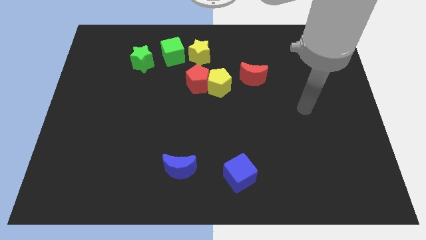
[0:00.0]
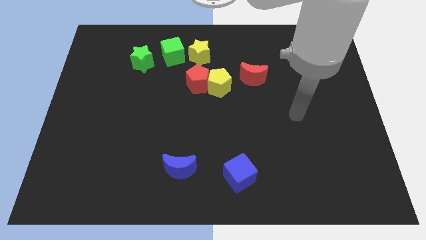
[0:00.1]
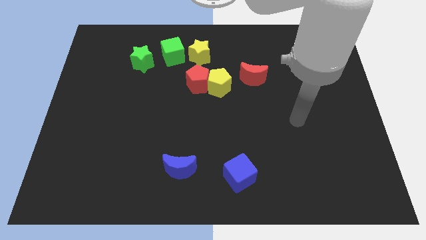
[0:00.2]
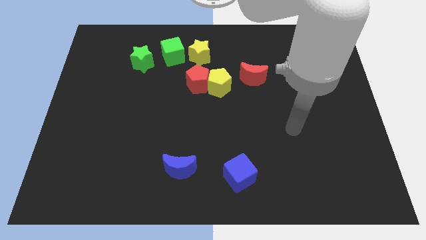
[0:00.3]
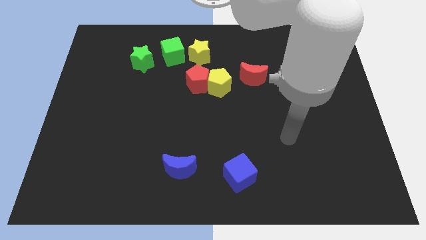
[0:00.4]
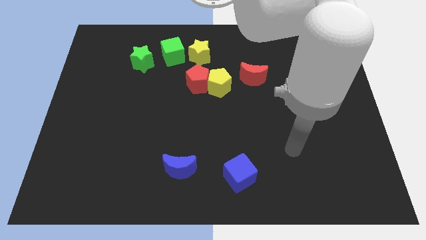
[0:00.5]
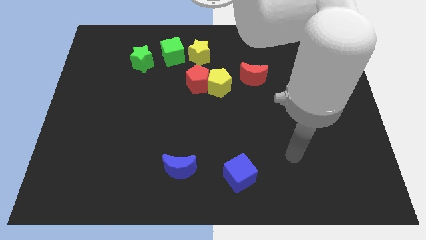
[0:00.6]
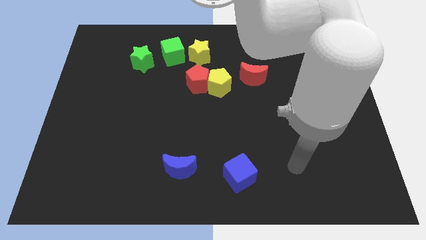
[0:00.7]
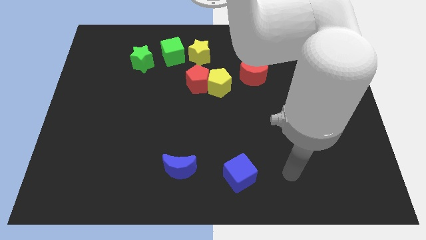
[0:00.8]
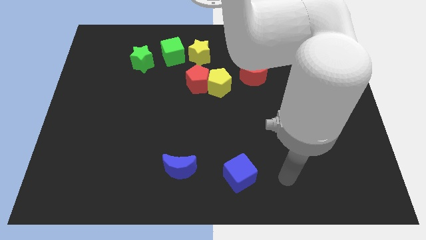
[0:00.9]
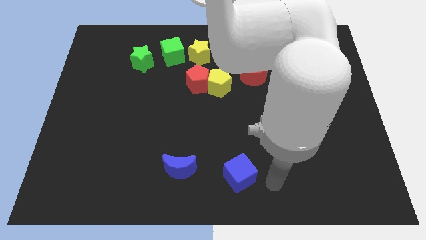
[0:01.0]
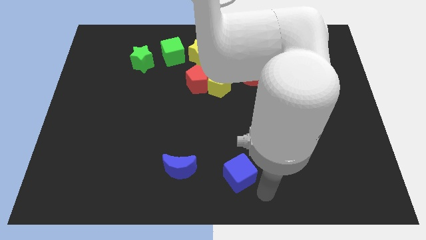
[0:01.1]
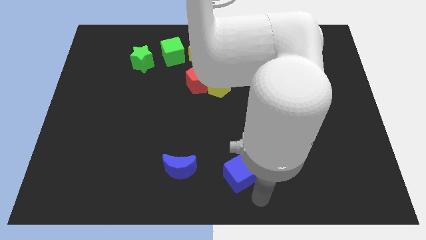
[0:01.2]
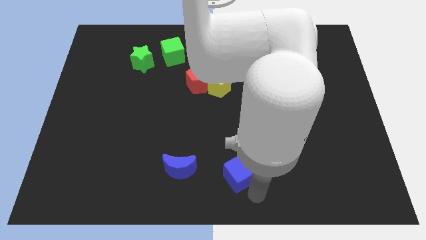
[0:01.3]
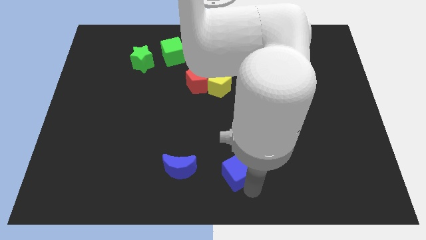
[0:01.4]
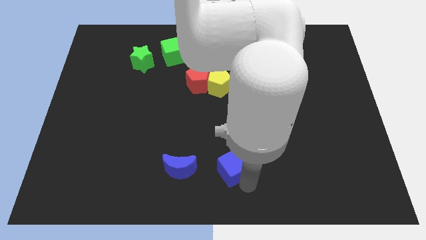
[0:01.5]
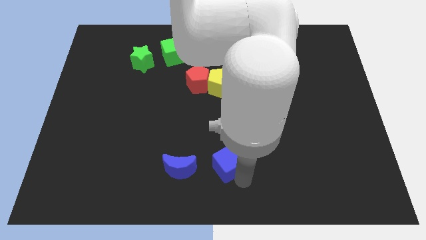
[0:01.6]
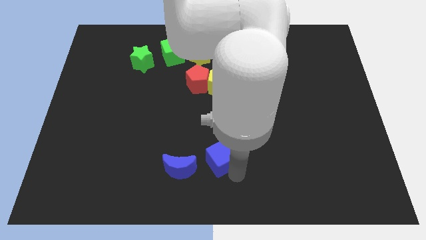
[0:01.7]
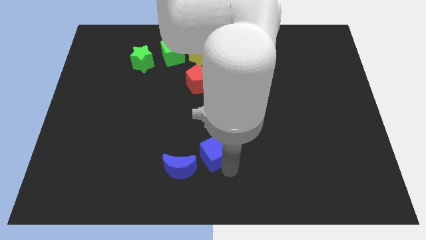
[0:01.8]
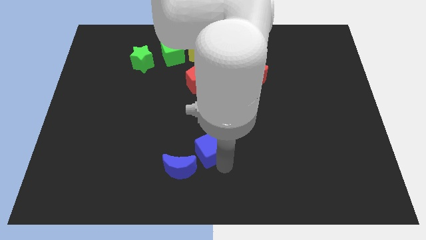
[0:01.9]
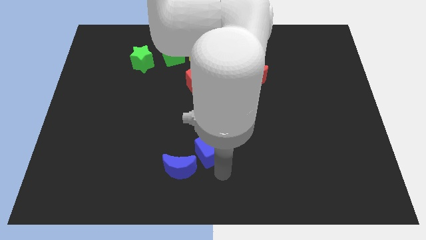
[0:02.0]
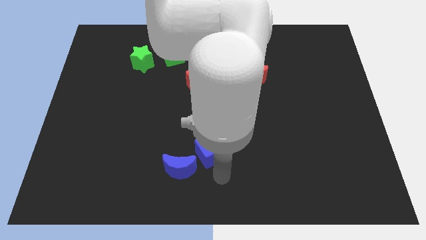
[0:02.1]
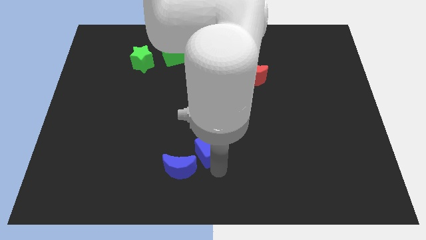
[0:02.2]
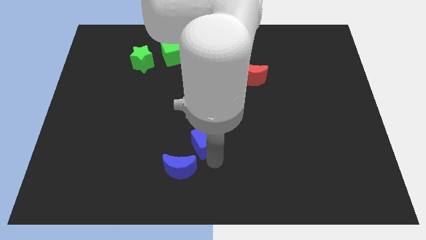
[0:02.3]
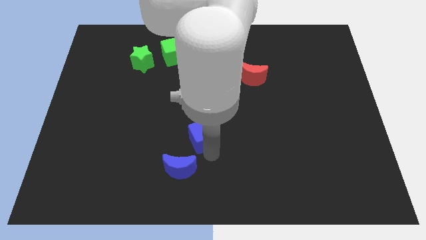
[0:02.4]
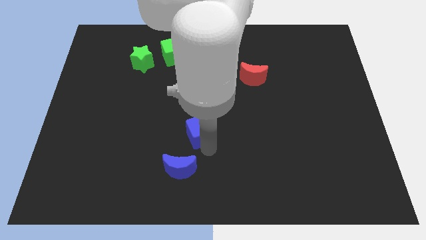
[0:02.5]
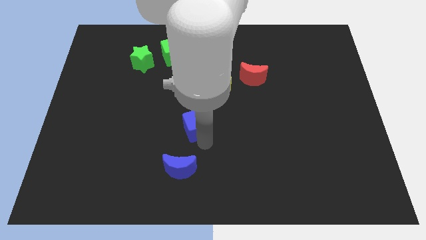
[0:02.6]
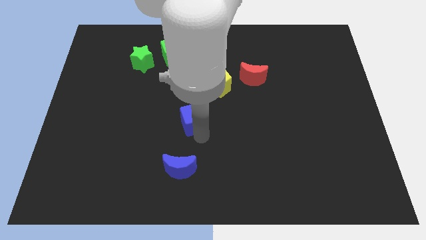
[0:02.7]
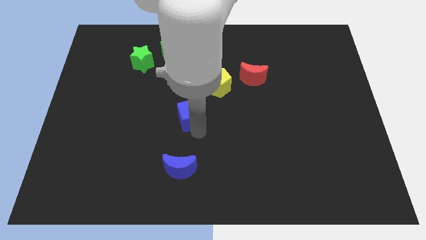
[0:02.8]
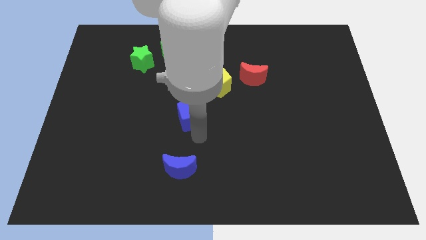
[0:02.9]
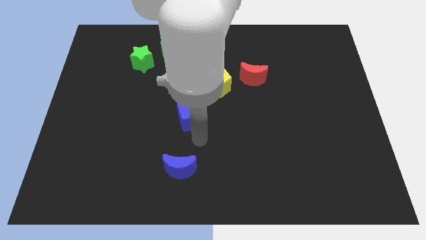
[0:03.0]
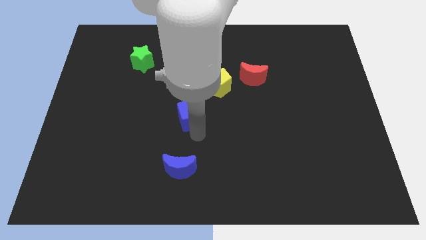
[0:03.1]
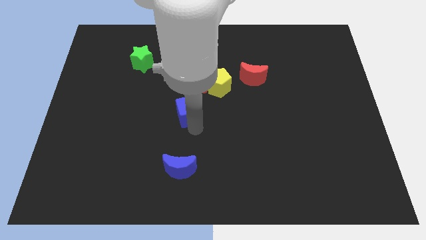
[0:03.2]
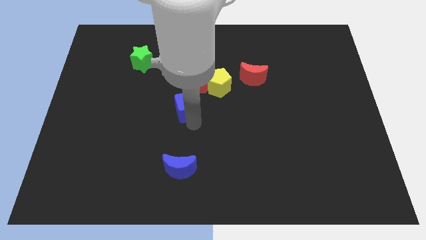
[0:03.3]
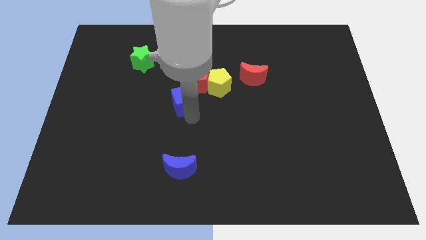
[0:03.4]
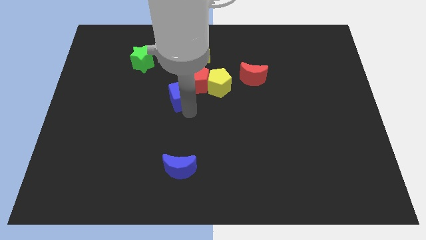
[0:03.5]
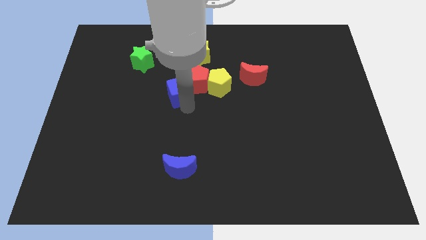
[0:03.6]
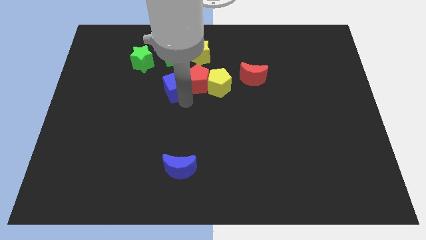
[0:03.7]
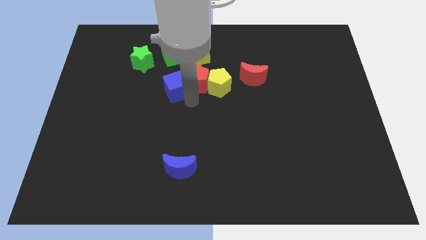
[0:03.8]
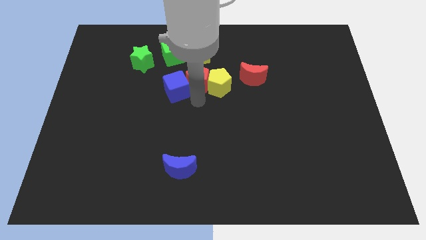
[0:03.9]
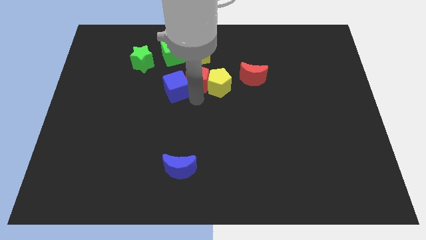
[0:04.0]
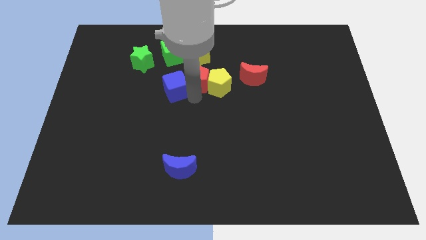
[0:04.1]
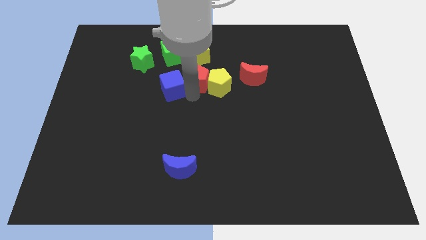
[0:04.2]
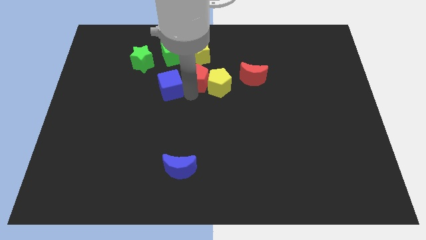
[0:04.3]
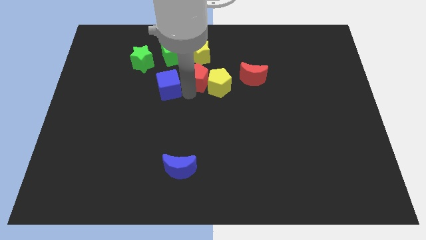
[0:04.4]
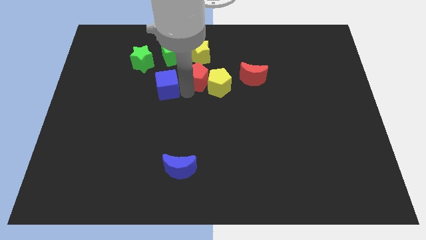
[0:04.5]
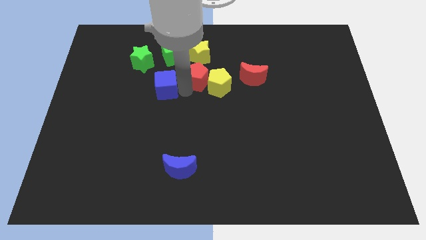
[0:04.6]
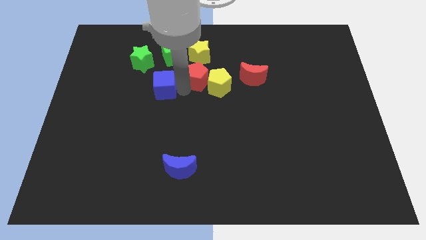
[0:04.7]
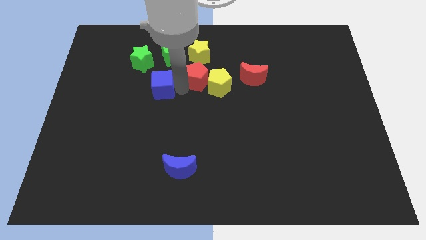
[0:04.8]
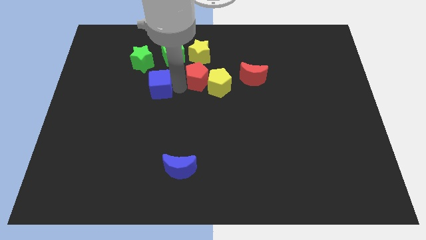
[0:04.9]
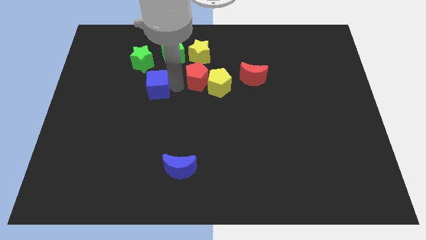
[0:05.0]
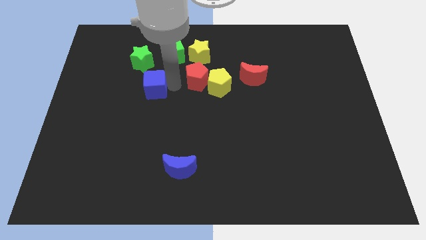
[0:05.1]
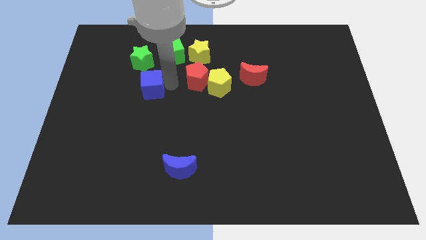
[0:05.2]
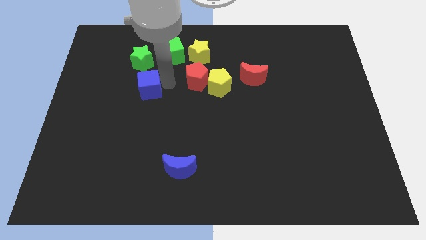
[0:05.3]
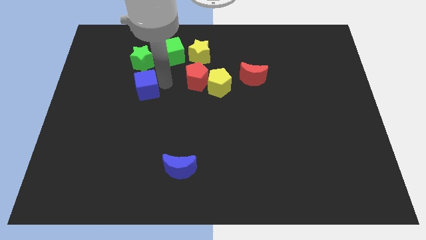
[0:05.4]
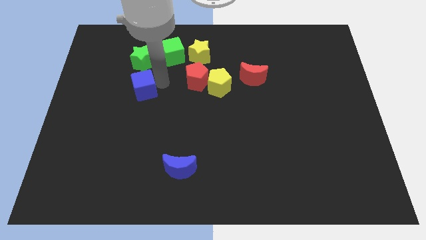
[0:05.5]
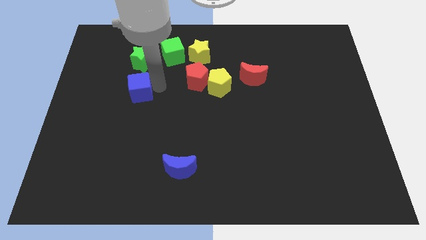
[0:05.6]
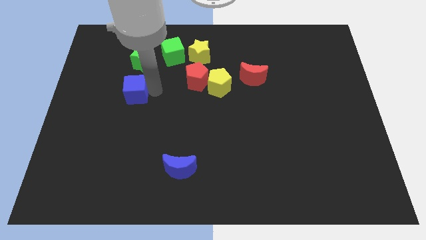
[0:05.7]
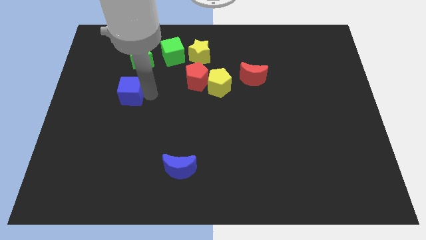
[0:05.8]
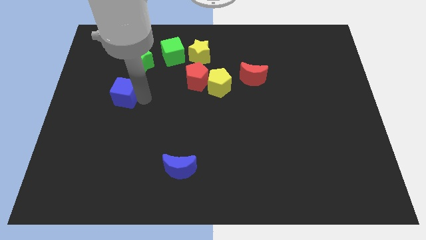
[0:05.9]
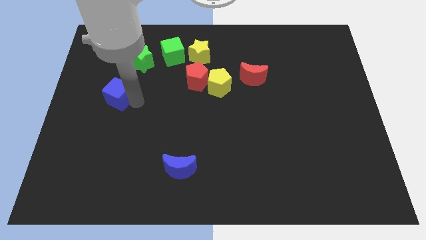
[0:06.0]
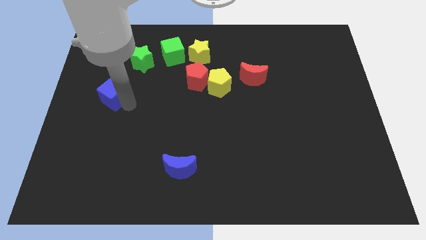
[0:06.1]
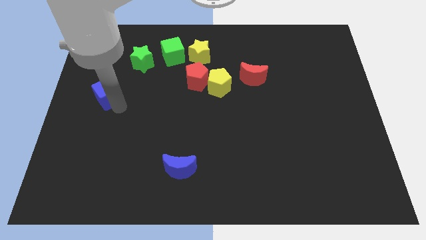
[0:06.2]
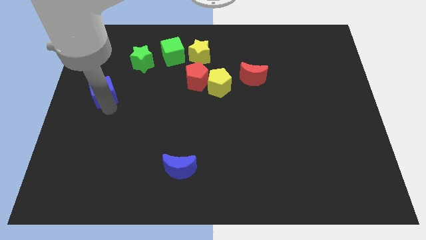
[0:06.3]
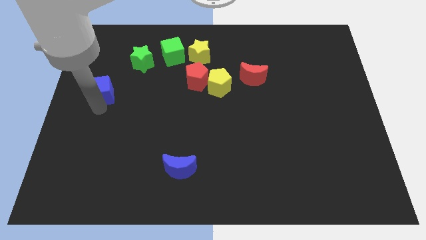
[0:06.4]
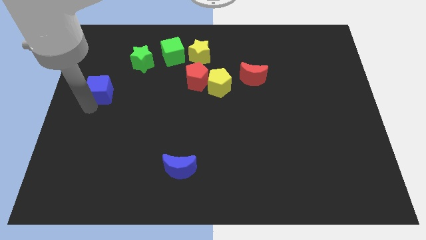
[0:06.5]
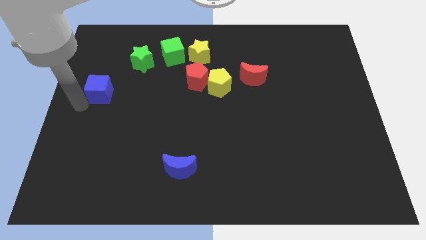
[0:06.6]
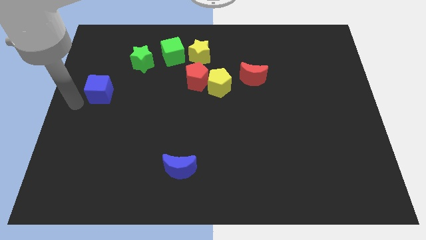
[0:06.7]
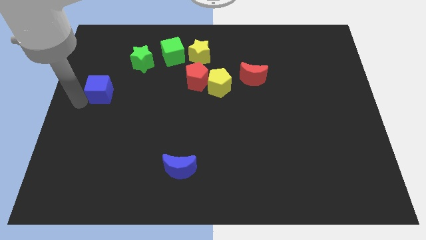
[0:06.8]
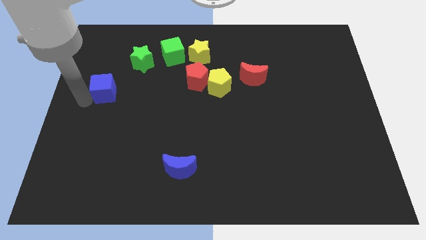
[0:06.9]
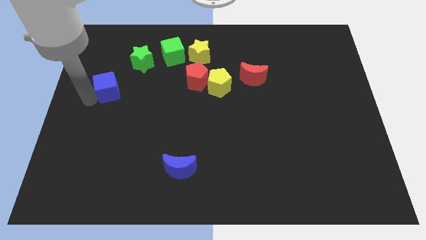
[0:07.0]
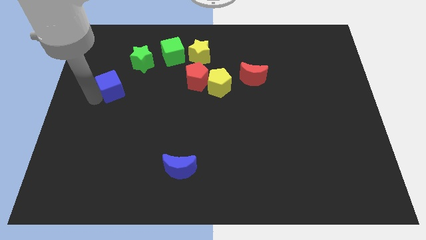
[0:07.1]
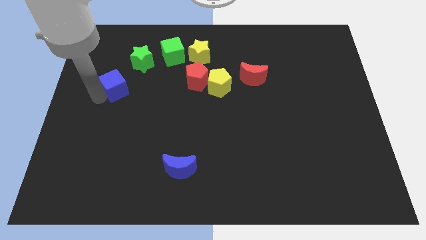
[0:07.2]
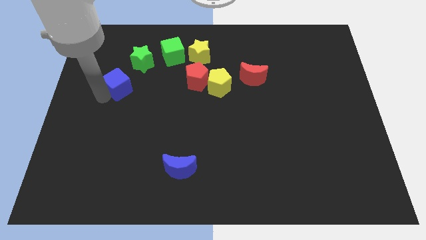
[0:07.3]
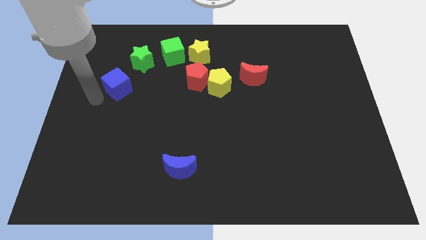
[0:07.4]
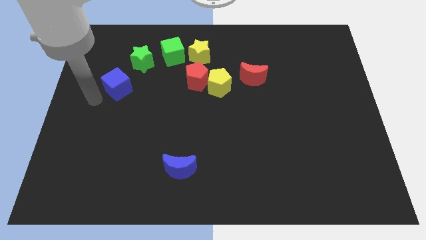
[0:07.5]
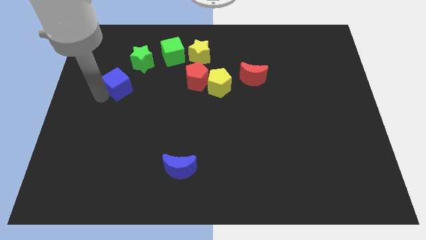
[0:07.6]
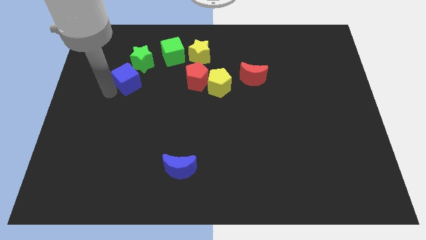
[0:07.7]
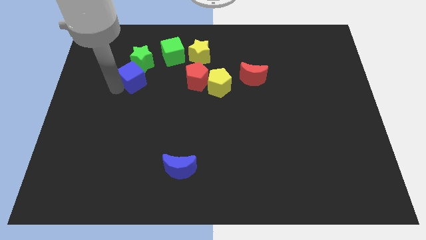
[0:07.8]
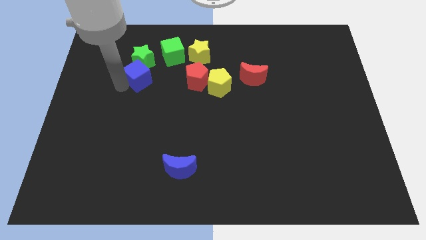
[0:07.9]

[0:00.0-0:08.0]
slide the blue cube to the green star
